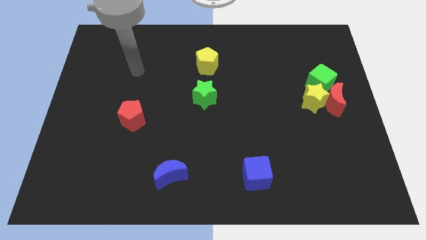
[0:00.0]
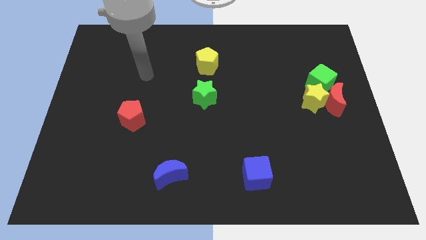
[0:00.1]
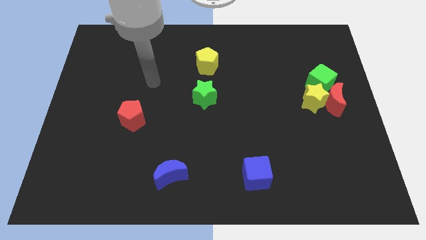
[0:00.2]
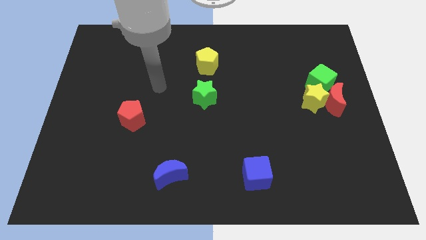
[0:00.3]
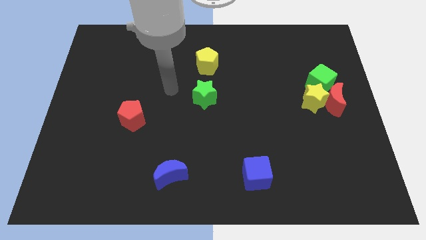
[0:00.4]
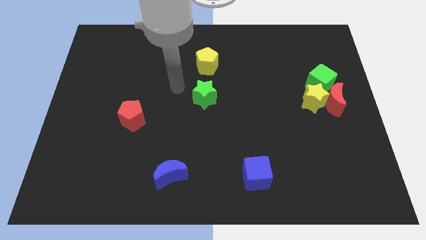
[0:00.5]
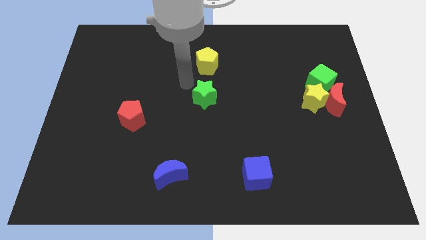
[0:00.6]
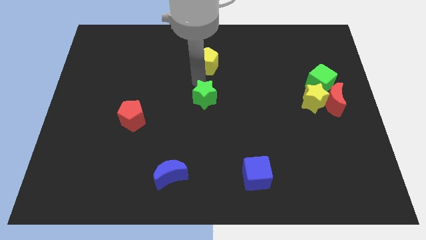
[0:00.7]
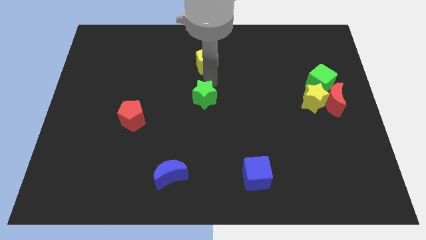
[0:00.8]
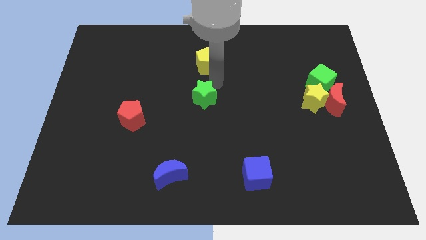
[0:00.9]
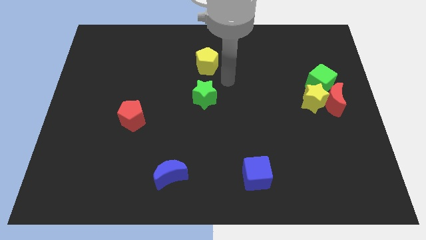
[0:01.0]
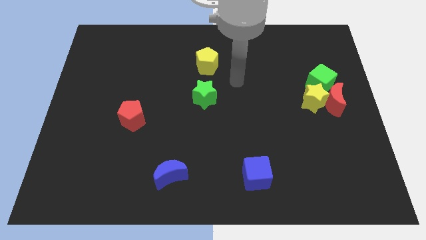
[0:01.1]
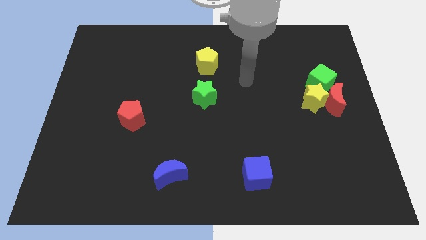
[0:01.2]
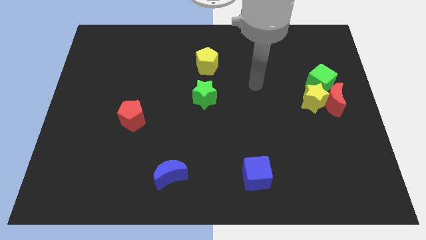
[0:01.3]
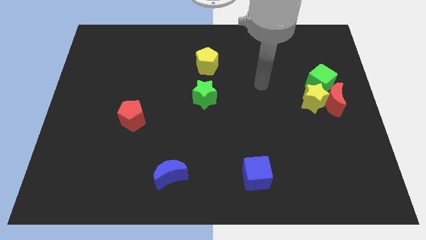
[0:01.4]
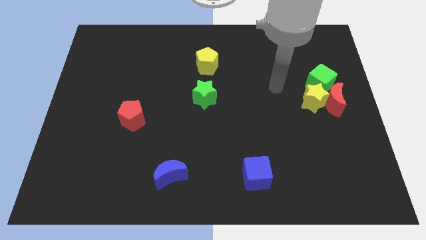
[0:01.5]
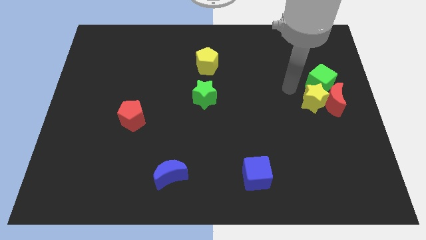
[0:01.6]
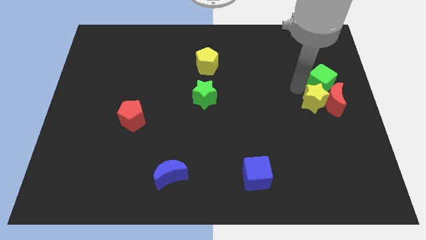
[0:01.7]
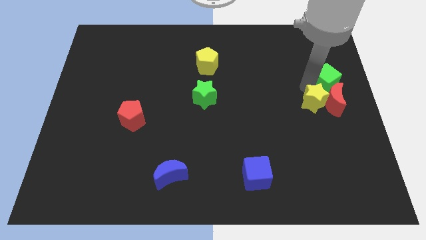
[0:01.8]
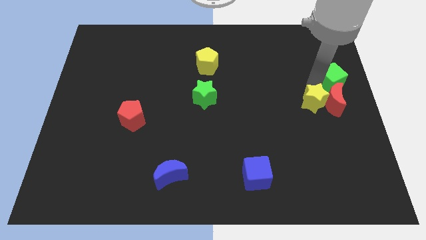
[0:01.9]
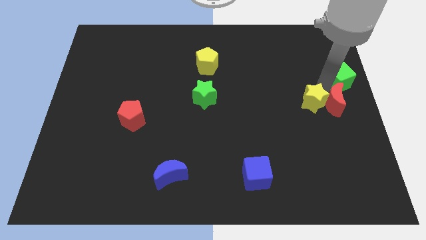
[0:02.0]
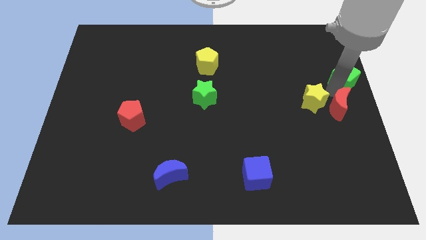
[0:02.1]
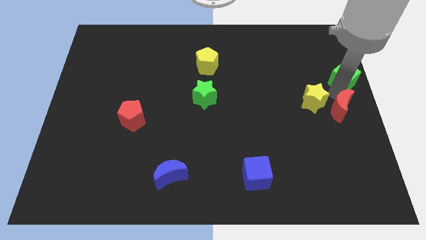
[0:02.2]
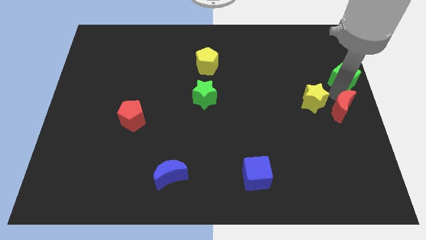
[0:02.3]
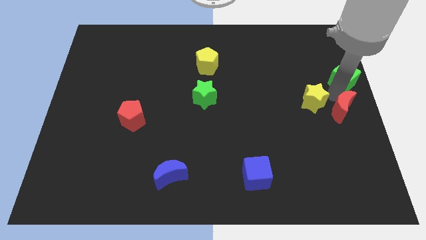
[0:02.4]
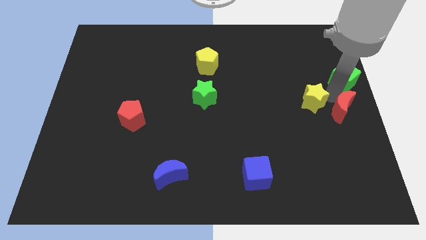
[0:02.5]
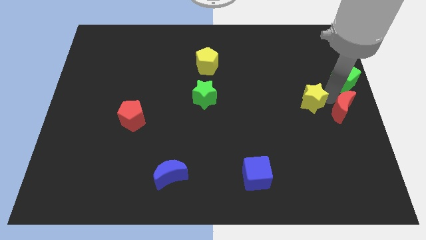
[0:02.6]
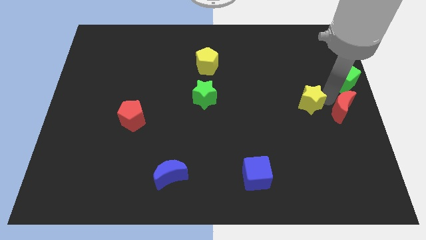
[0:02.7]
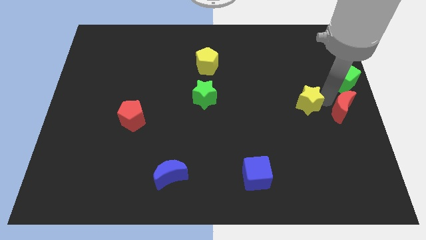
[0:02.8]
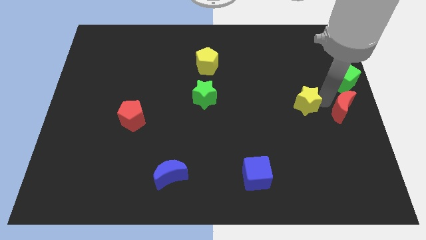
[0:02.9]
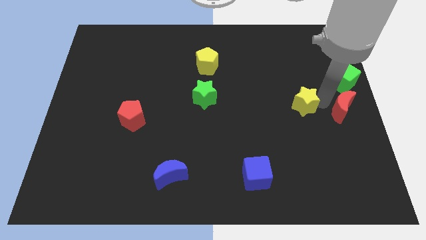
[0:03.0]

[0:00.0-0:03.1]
pull the yellow star apart from the red moon and green cube

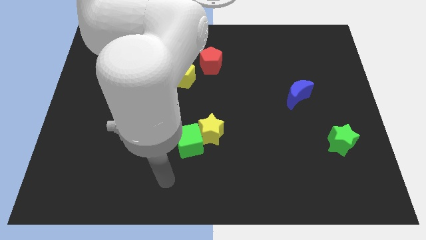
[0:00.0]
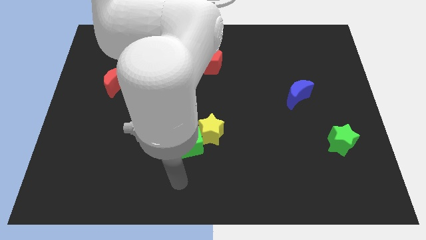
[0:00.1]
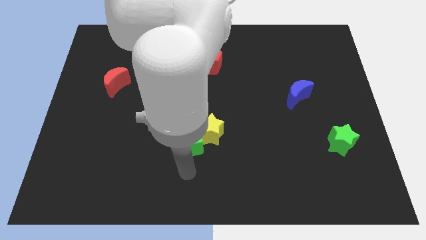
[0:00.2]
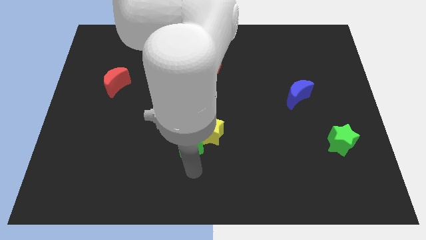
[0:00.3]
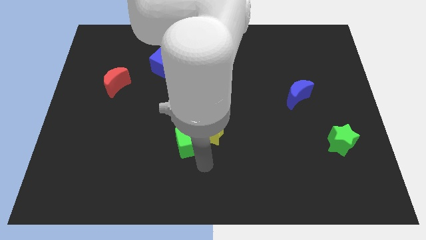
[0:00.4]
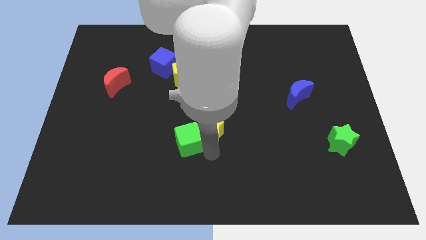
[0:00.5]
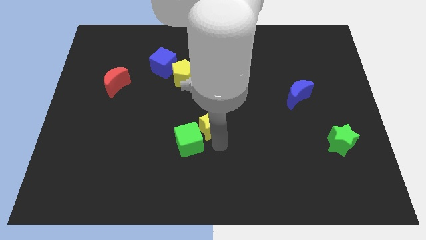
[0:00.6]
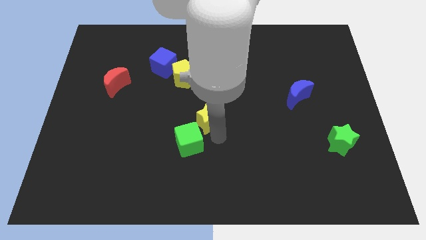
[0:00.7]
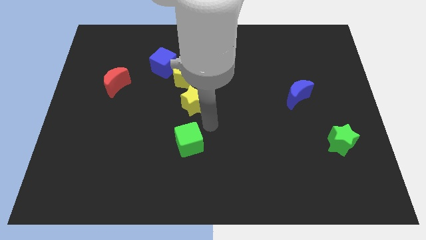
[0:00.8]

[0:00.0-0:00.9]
pull the green cube apart from the yellow star

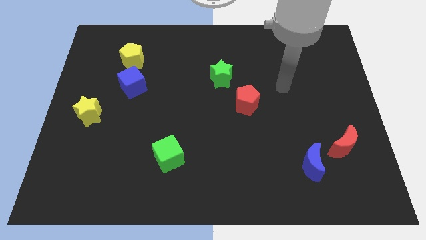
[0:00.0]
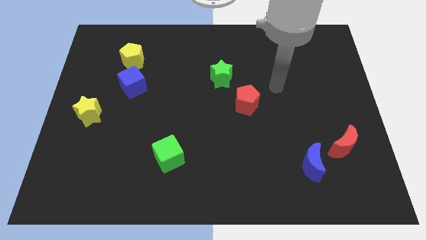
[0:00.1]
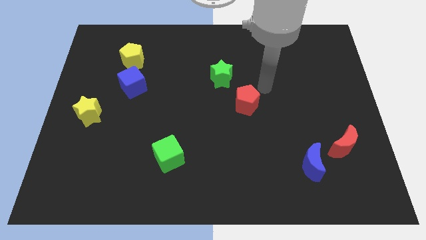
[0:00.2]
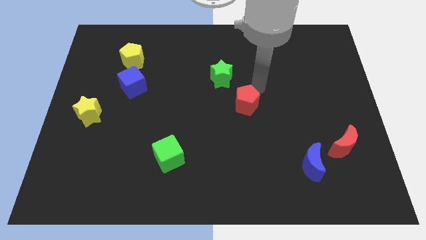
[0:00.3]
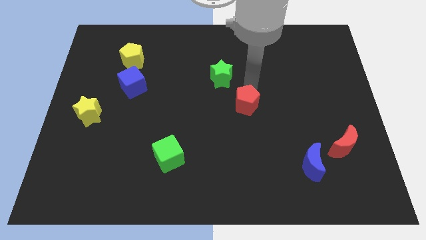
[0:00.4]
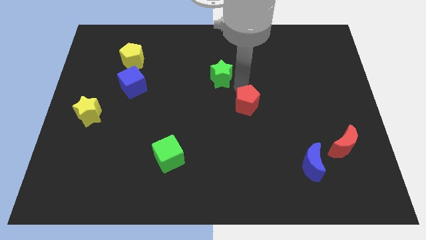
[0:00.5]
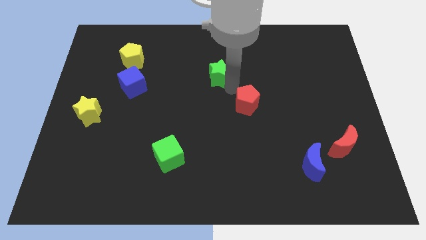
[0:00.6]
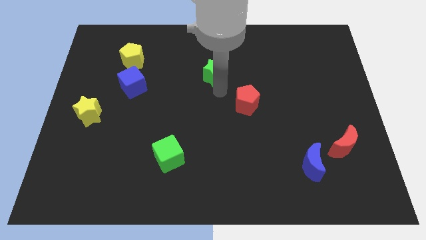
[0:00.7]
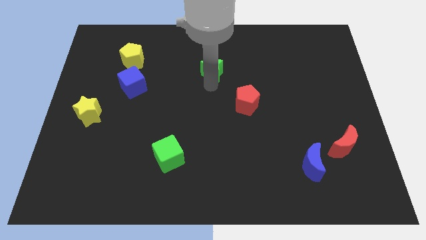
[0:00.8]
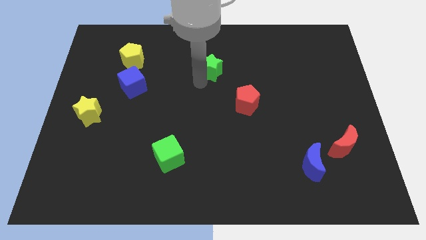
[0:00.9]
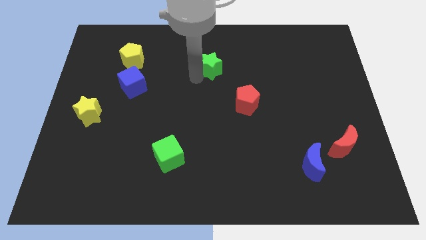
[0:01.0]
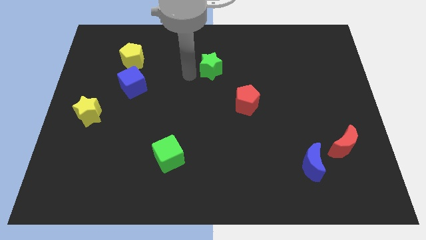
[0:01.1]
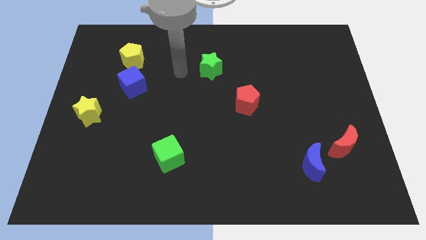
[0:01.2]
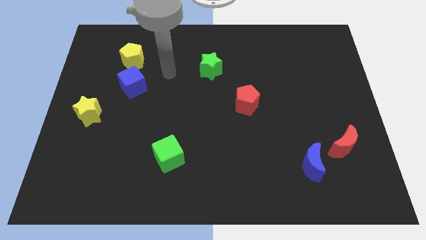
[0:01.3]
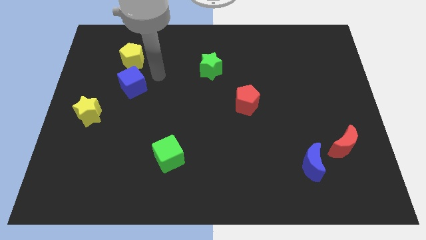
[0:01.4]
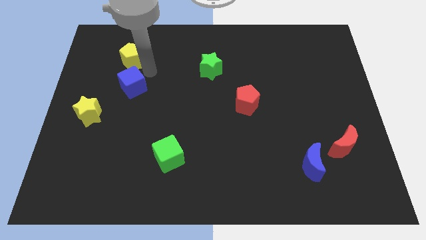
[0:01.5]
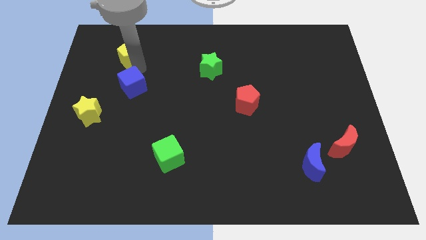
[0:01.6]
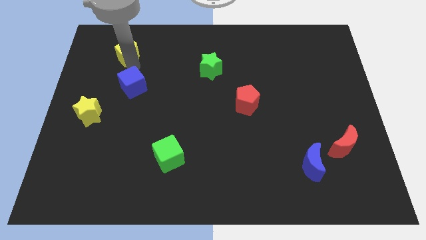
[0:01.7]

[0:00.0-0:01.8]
move the blue cube away from the yellow pentagon

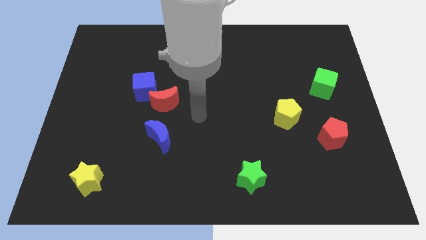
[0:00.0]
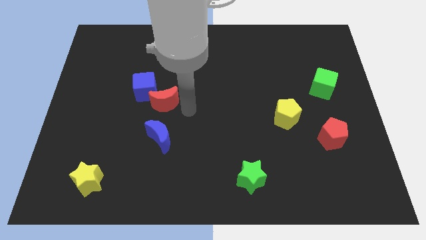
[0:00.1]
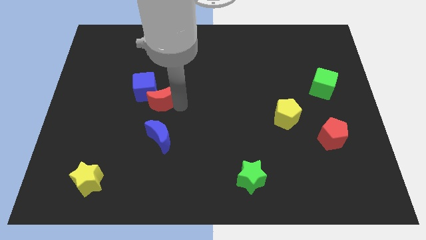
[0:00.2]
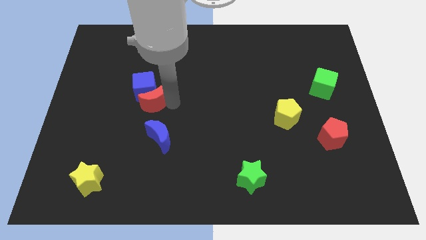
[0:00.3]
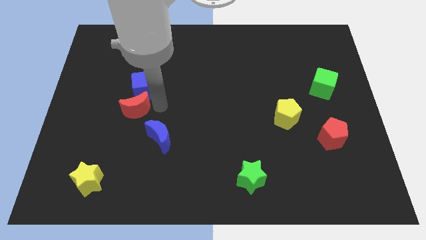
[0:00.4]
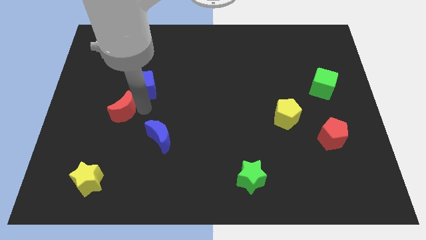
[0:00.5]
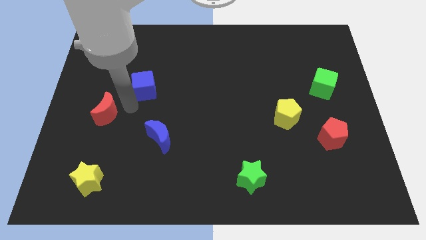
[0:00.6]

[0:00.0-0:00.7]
pull the blue cube apart from the red moon

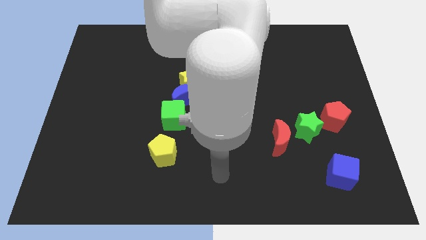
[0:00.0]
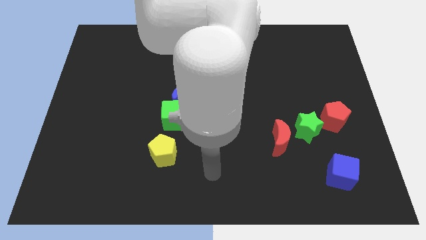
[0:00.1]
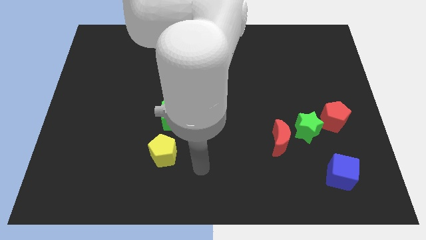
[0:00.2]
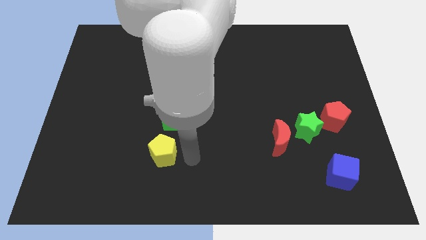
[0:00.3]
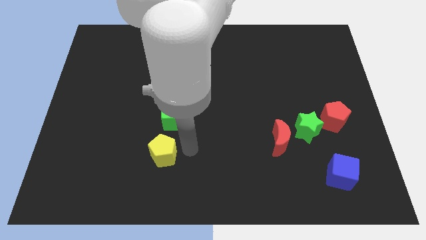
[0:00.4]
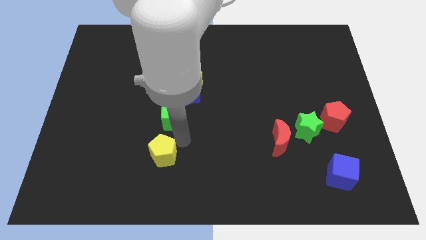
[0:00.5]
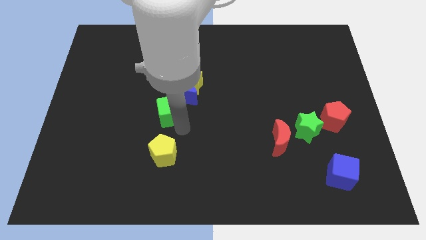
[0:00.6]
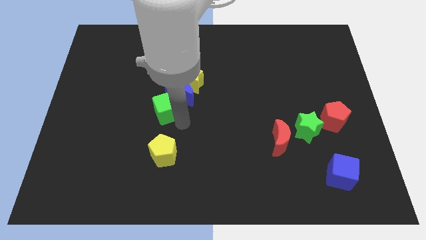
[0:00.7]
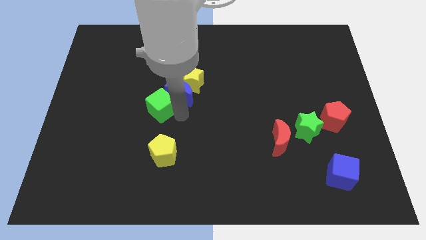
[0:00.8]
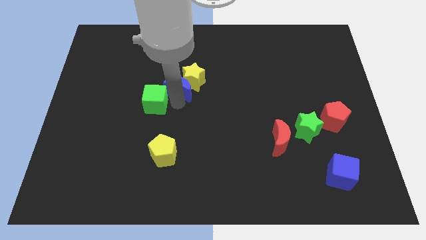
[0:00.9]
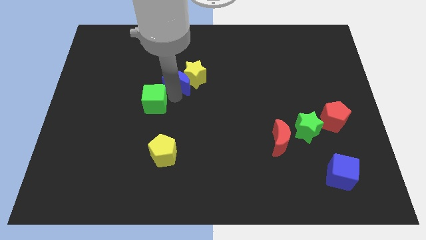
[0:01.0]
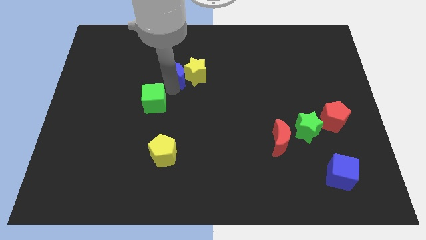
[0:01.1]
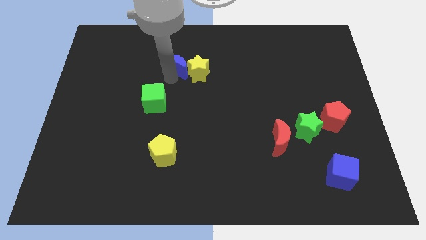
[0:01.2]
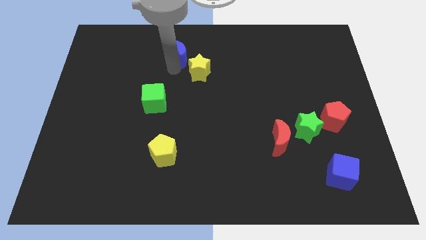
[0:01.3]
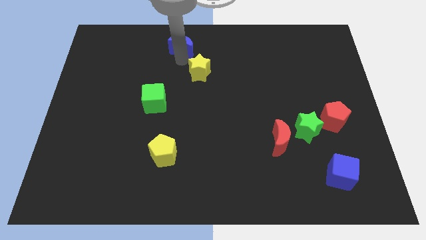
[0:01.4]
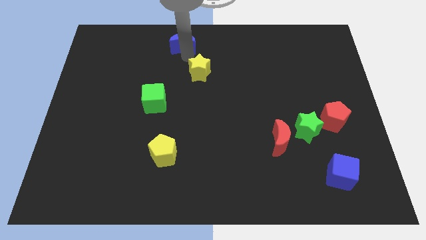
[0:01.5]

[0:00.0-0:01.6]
pull the yellow star apart from the blue moon

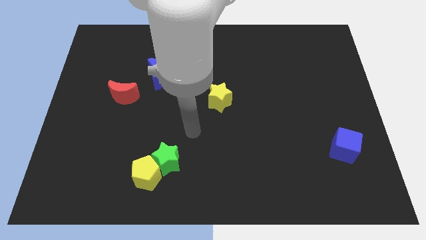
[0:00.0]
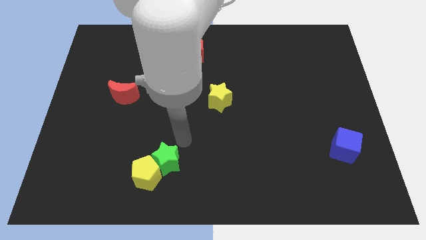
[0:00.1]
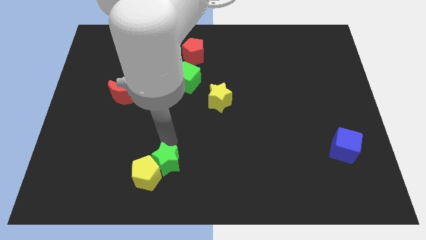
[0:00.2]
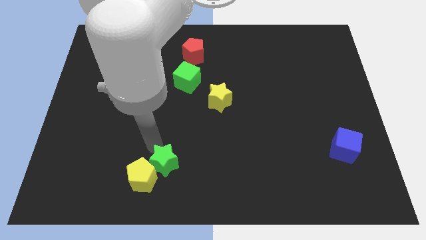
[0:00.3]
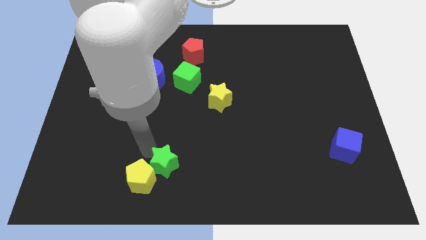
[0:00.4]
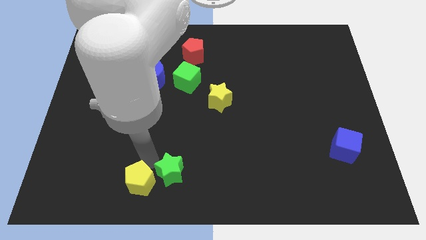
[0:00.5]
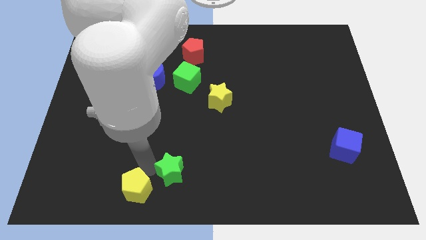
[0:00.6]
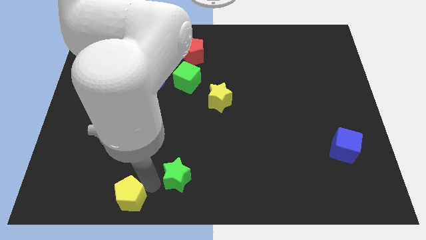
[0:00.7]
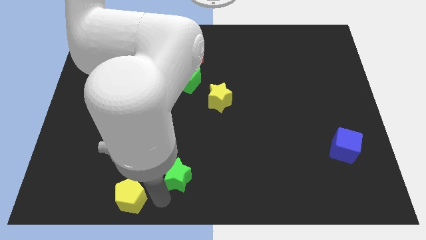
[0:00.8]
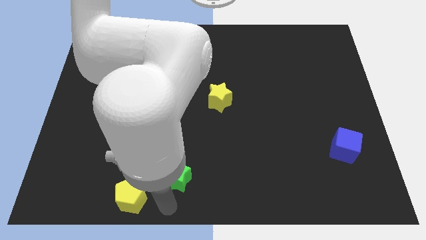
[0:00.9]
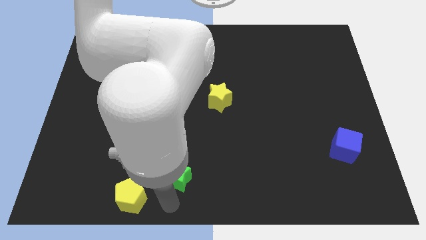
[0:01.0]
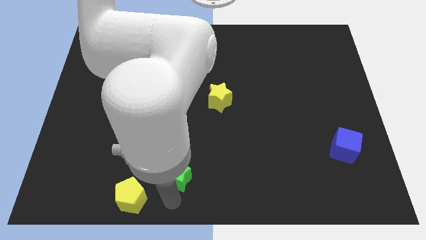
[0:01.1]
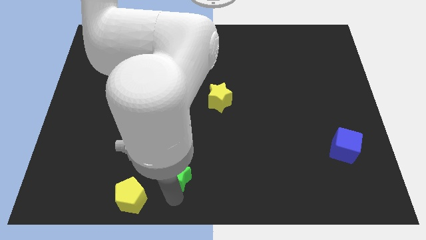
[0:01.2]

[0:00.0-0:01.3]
move the green star away from the yellow pentagon
